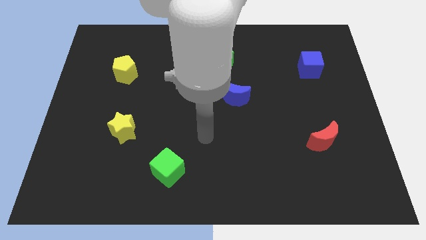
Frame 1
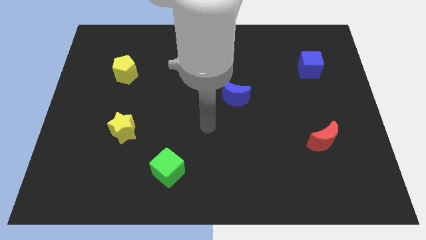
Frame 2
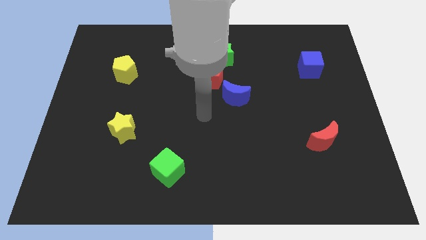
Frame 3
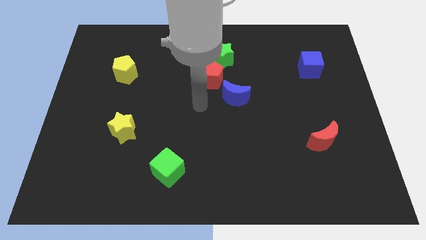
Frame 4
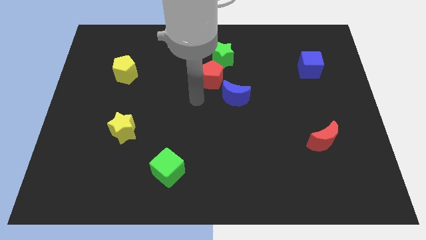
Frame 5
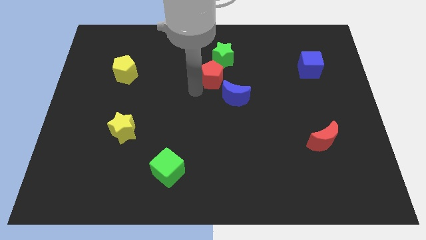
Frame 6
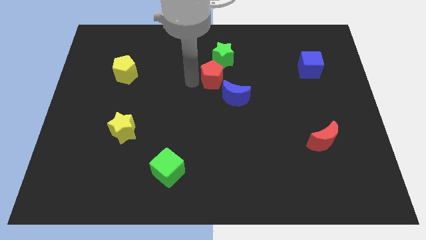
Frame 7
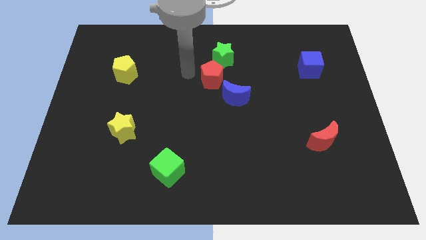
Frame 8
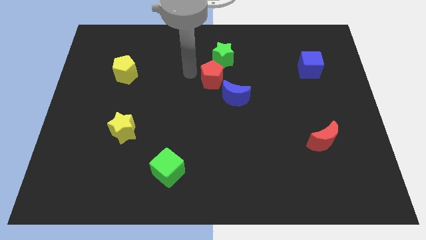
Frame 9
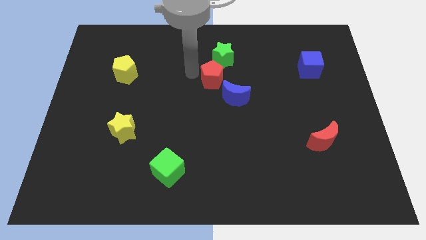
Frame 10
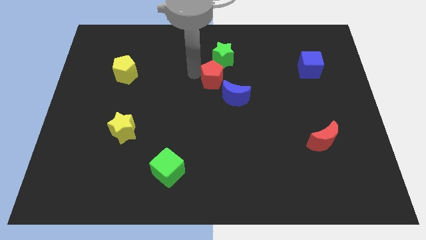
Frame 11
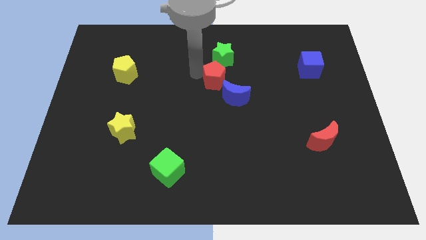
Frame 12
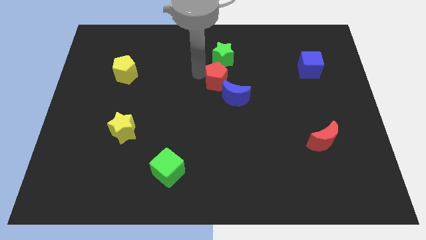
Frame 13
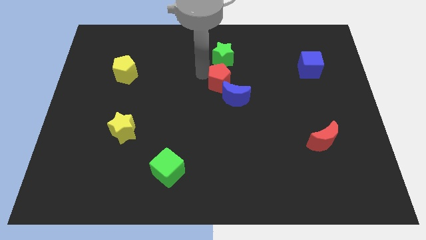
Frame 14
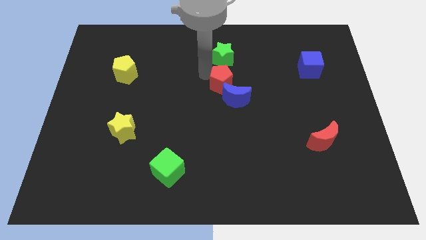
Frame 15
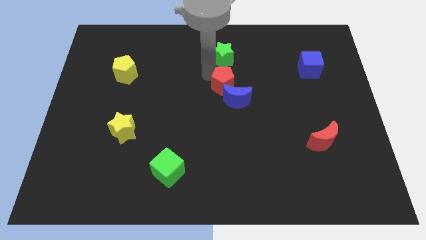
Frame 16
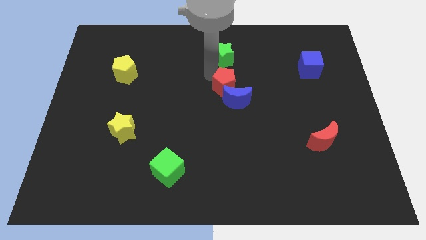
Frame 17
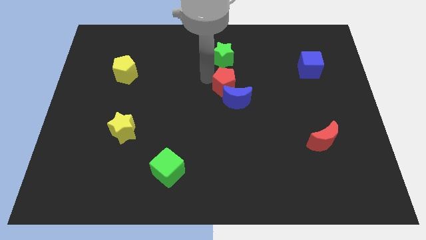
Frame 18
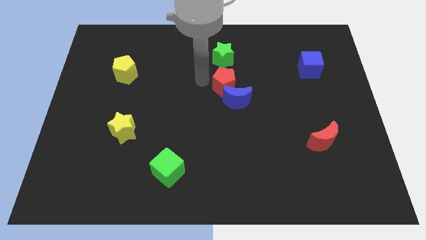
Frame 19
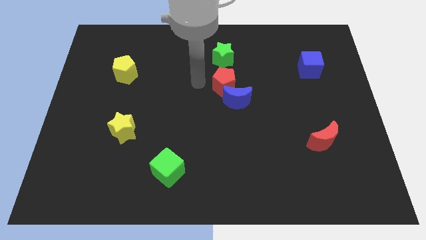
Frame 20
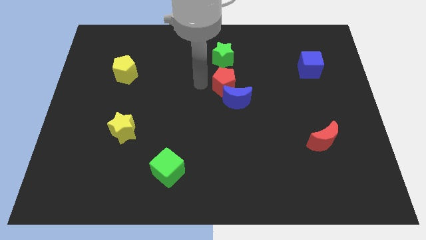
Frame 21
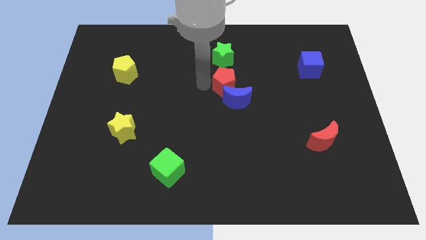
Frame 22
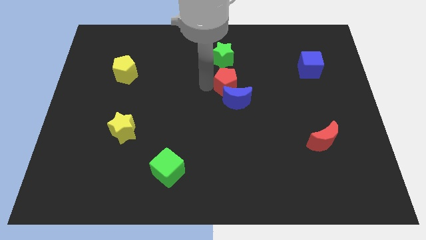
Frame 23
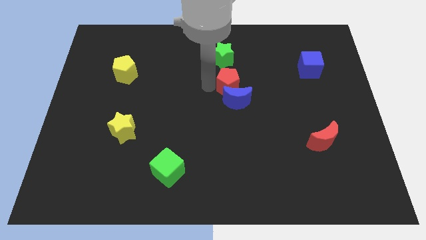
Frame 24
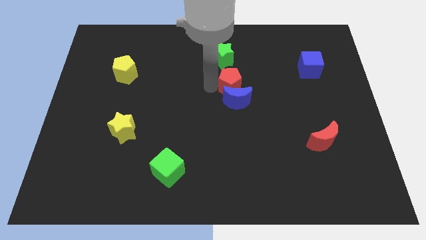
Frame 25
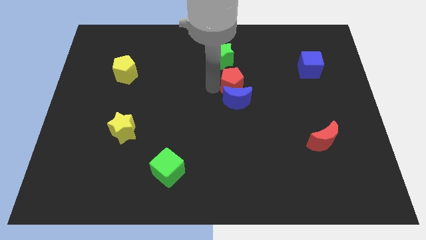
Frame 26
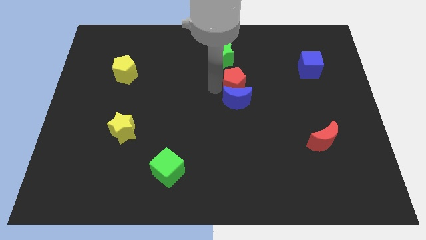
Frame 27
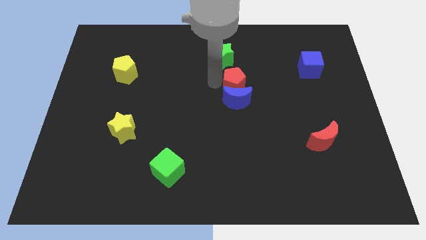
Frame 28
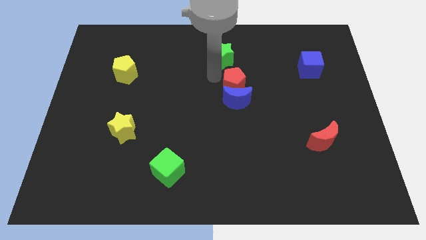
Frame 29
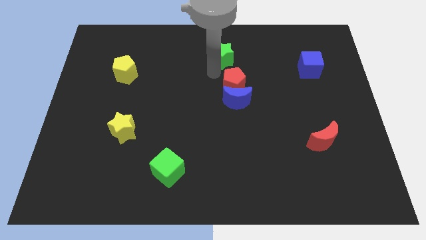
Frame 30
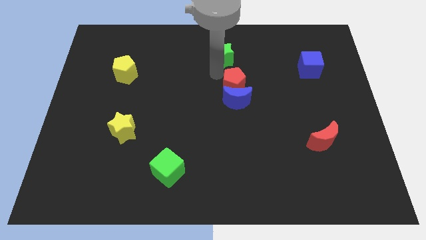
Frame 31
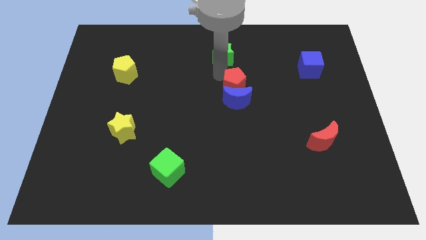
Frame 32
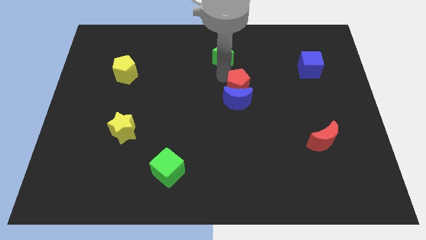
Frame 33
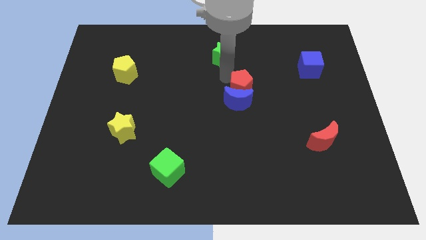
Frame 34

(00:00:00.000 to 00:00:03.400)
move the red pentagon downwards and then to the right a little bit

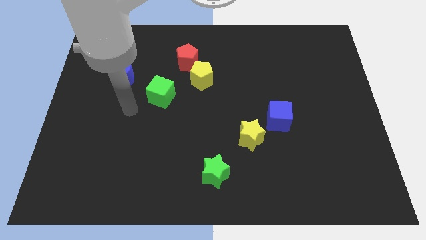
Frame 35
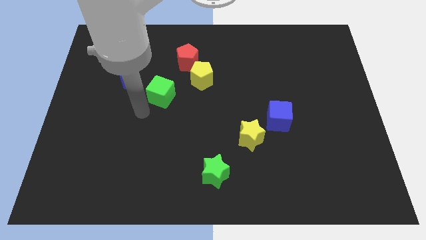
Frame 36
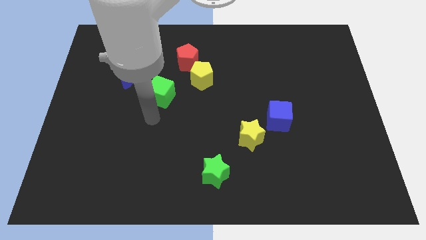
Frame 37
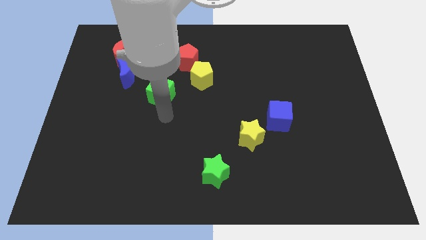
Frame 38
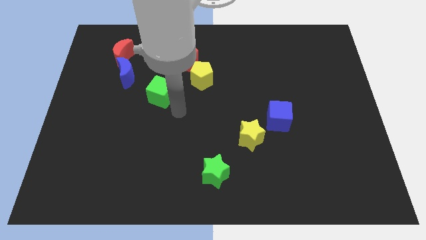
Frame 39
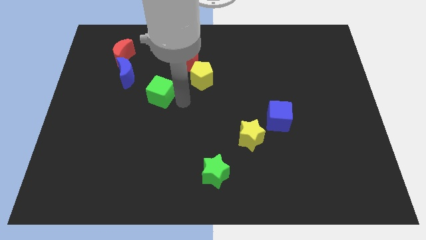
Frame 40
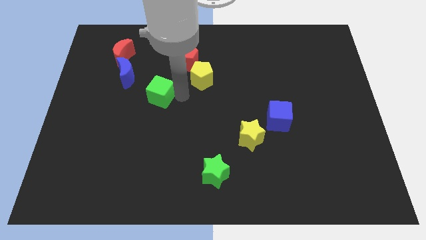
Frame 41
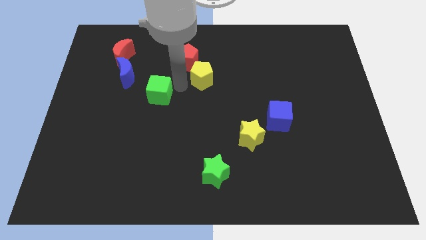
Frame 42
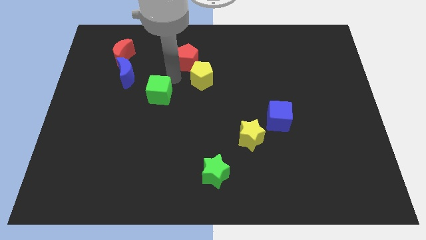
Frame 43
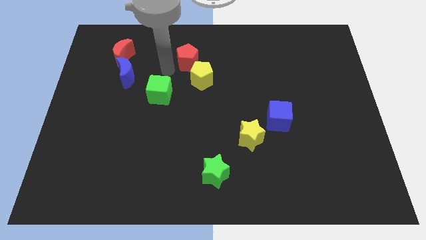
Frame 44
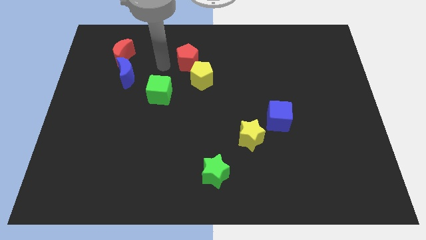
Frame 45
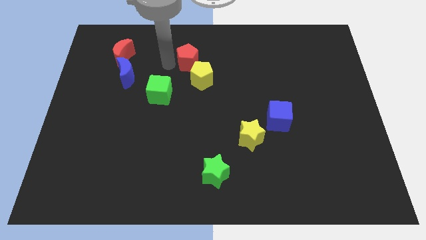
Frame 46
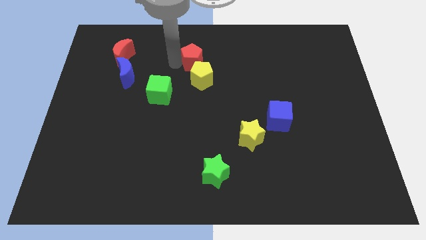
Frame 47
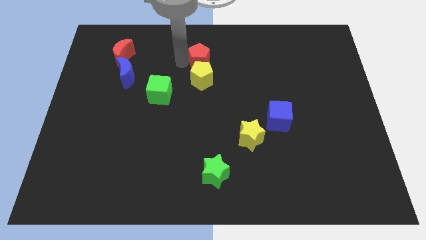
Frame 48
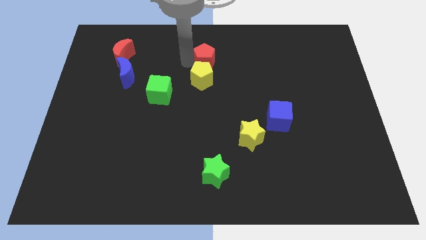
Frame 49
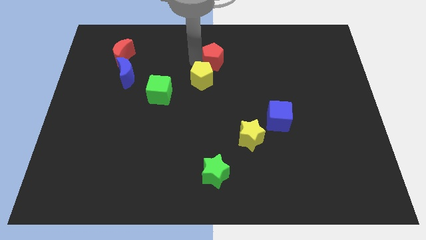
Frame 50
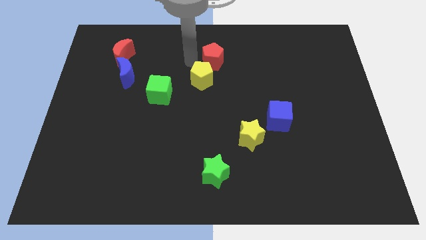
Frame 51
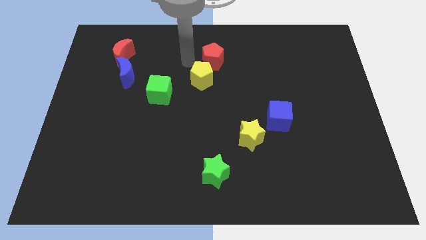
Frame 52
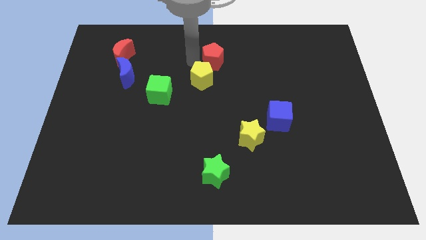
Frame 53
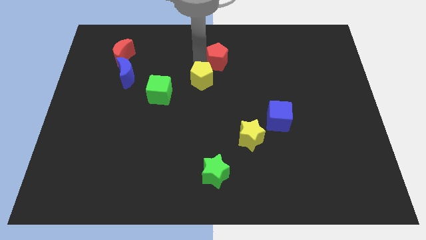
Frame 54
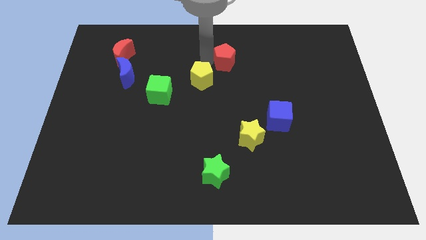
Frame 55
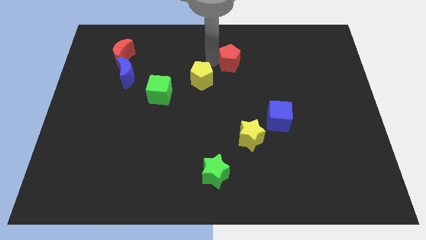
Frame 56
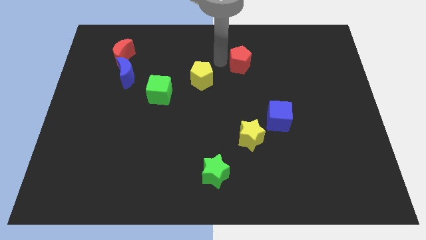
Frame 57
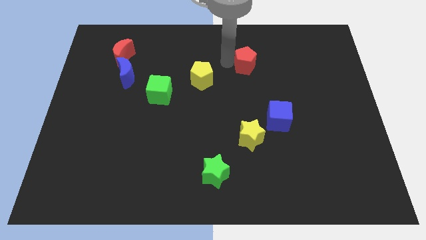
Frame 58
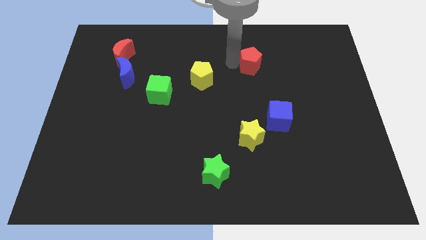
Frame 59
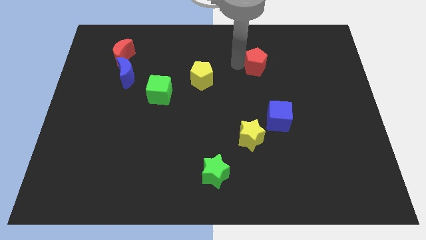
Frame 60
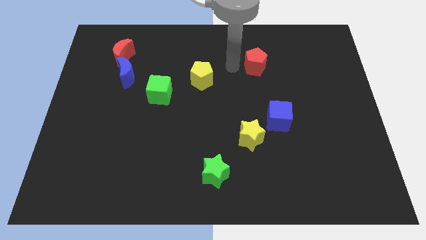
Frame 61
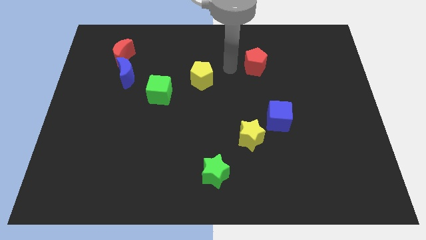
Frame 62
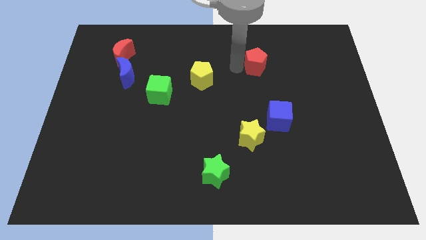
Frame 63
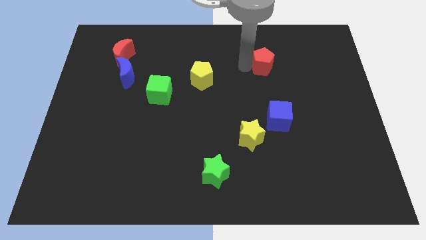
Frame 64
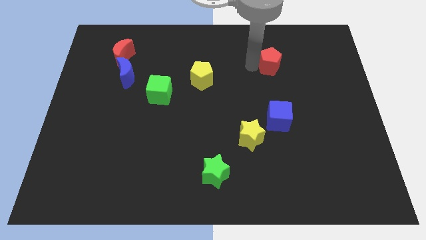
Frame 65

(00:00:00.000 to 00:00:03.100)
move the red pentagon right

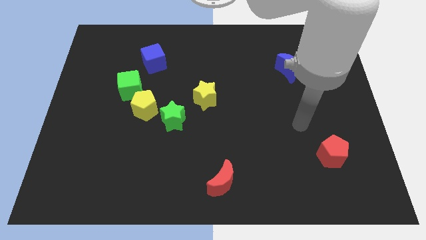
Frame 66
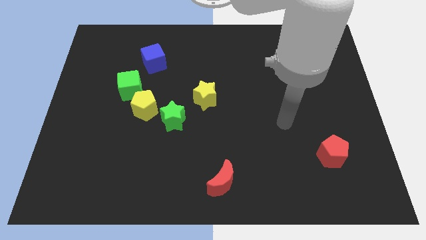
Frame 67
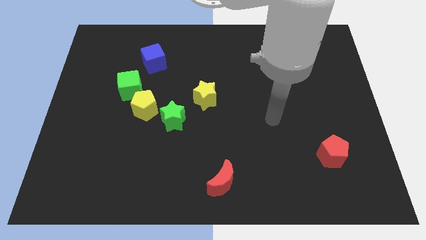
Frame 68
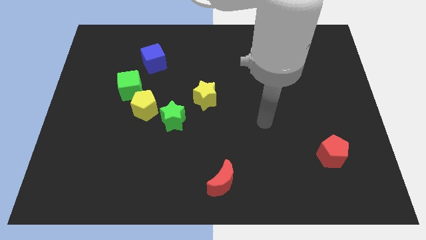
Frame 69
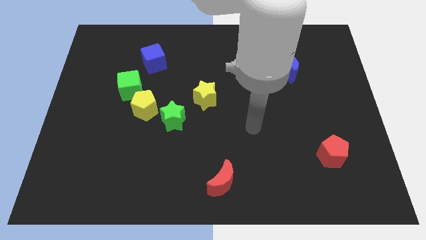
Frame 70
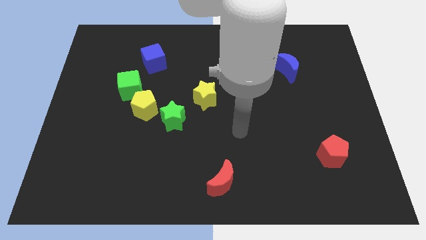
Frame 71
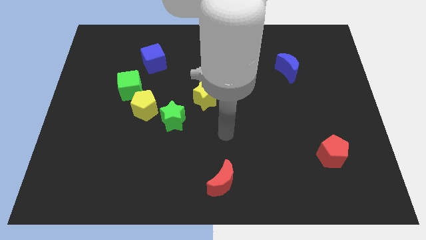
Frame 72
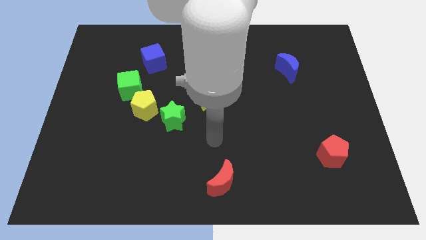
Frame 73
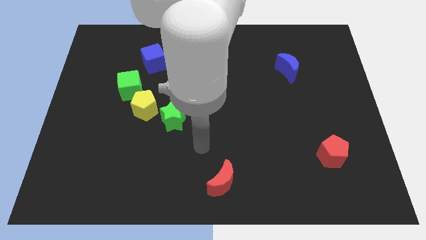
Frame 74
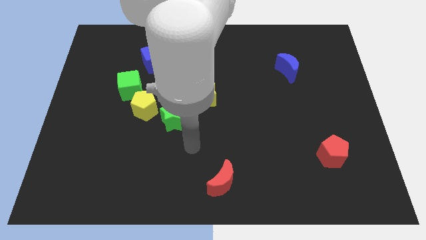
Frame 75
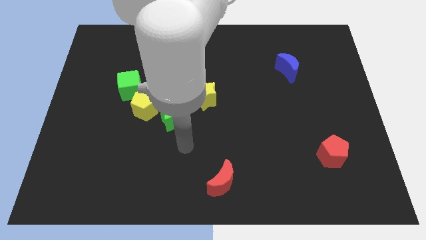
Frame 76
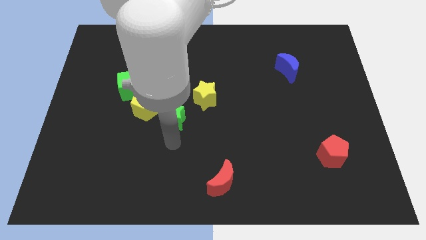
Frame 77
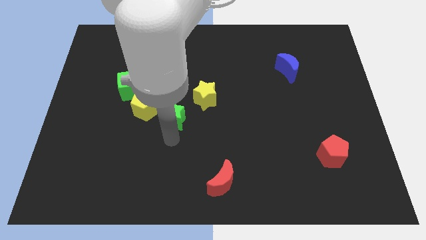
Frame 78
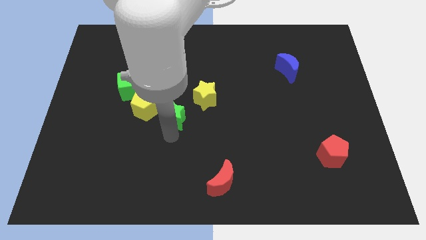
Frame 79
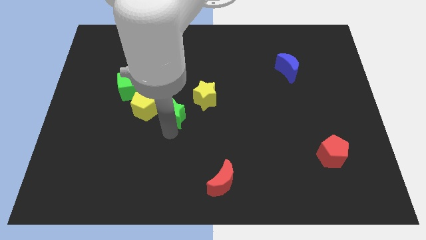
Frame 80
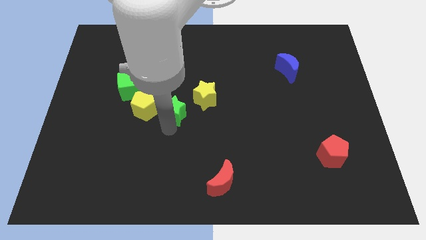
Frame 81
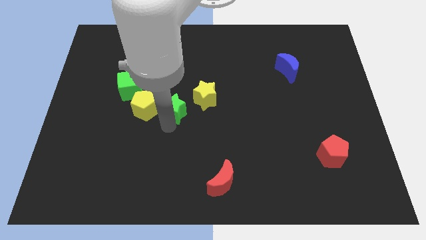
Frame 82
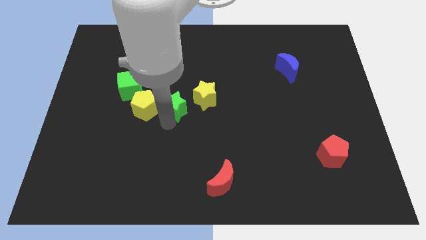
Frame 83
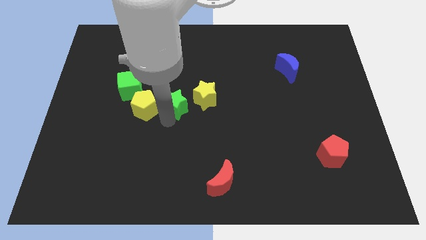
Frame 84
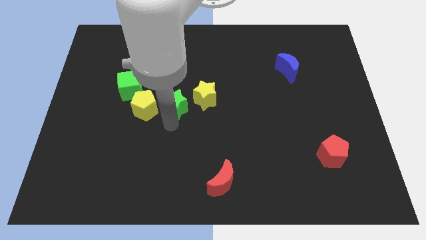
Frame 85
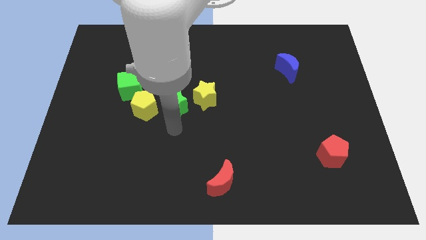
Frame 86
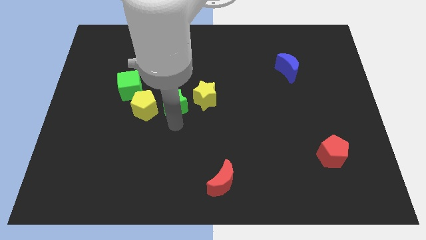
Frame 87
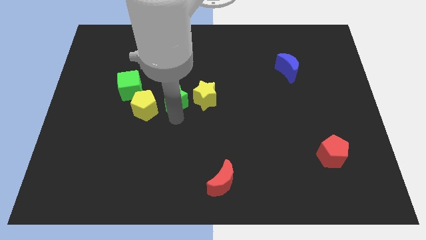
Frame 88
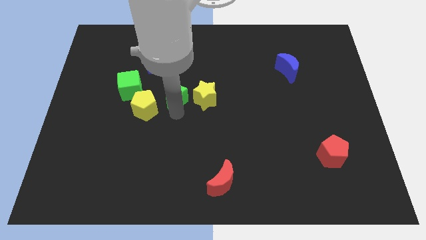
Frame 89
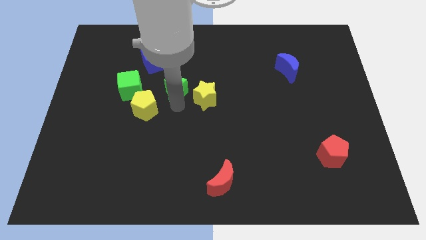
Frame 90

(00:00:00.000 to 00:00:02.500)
push the green star somewhat upwards
